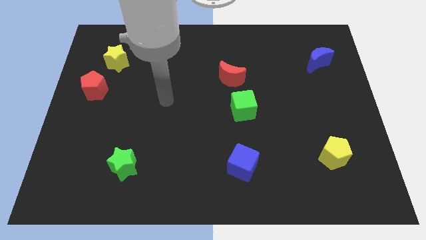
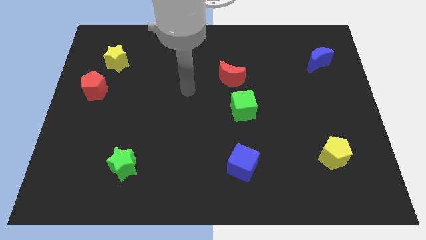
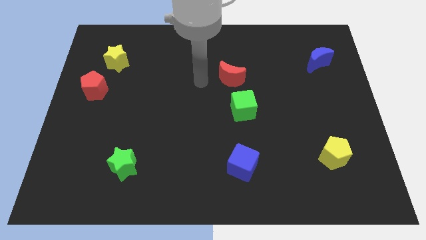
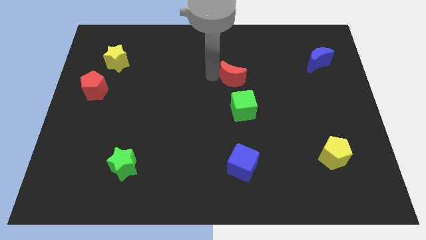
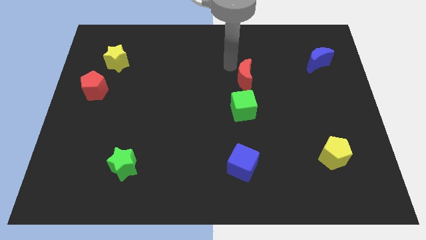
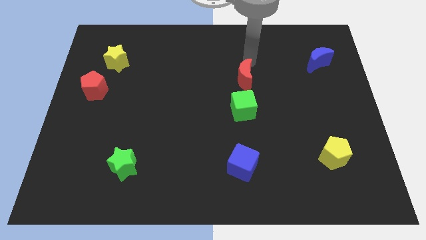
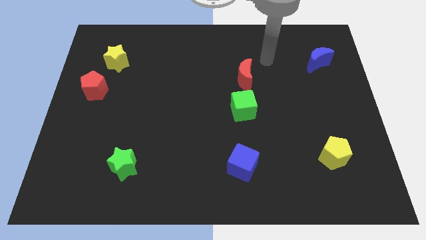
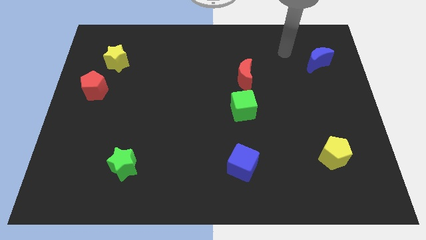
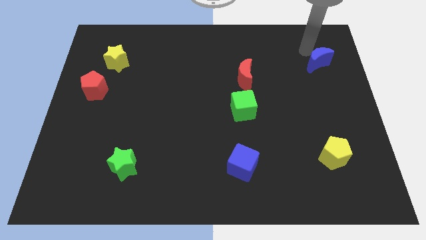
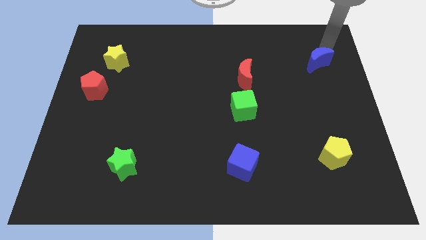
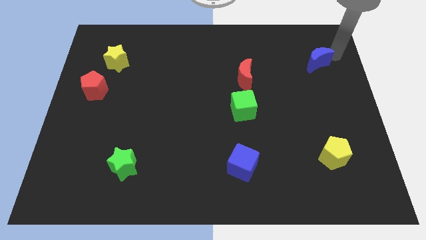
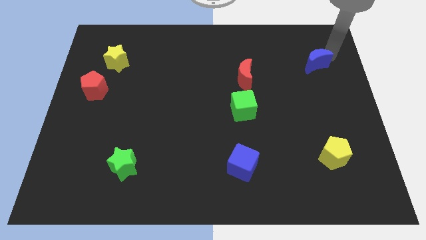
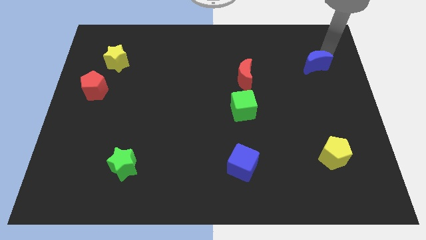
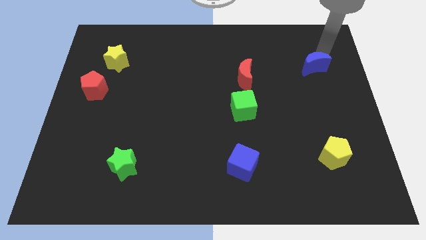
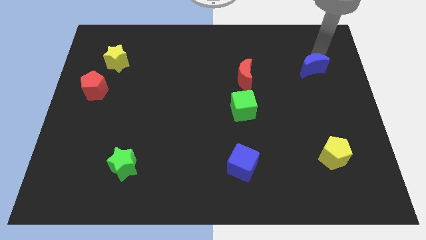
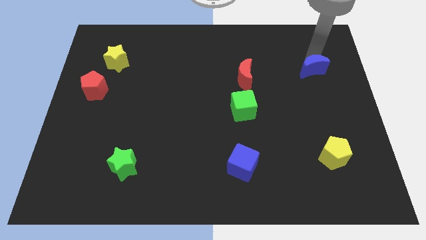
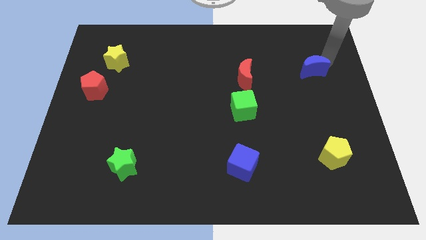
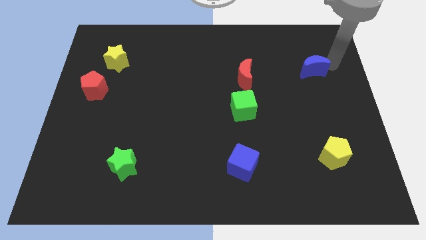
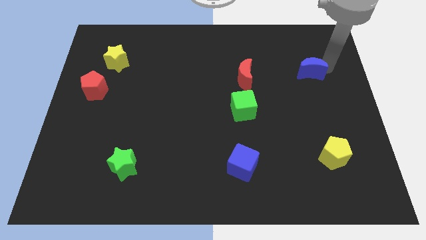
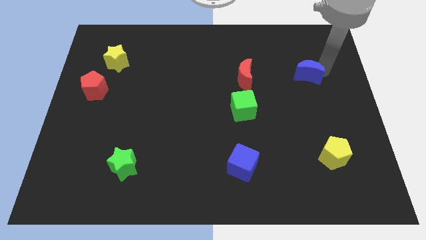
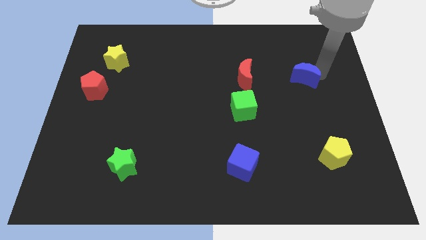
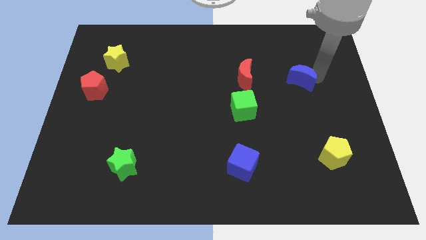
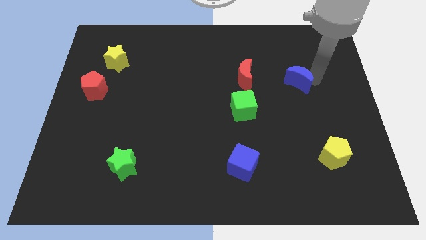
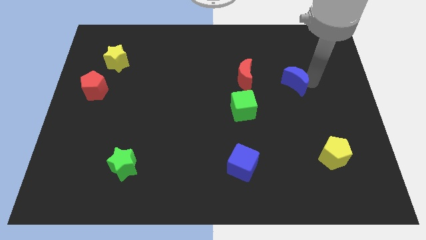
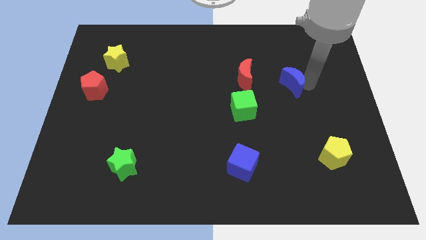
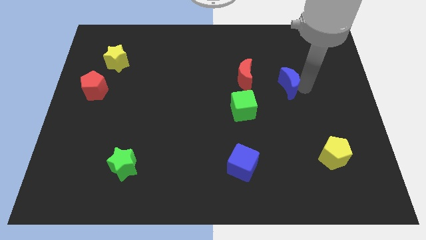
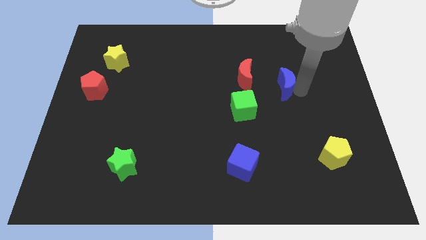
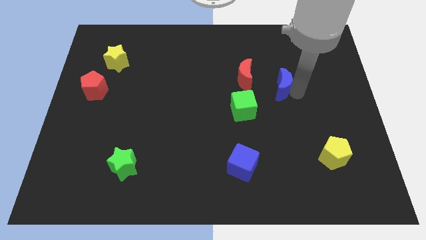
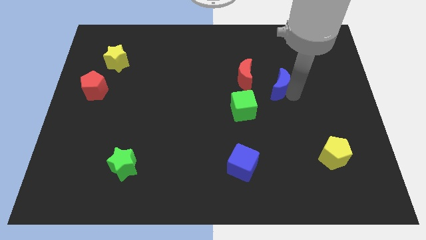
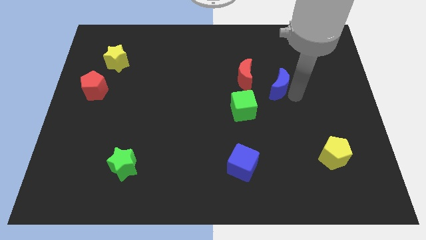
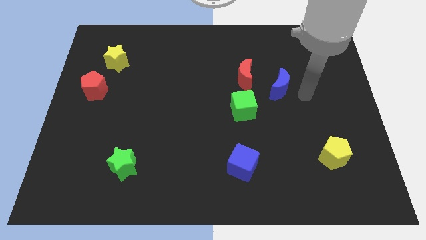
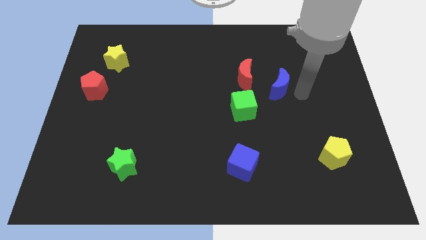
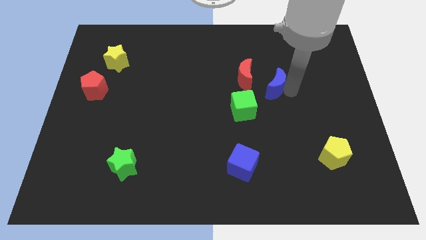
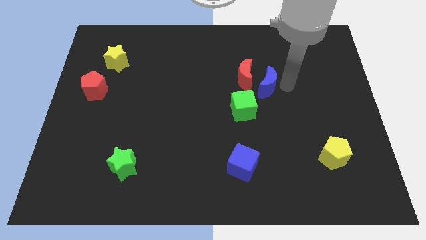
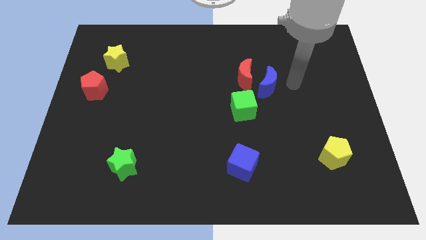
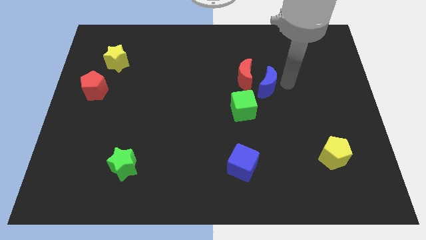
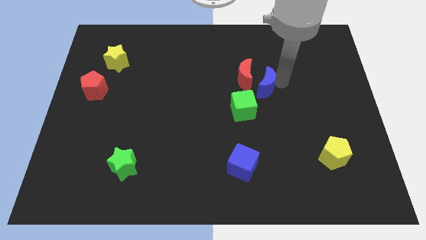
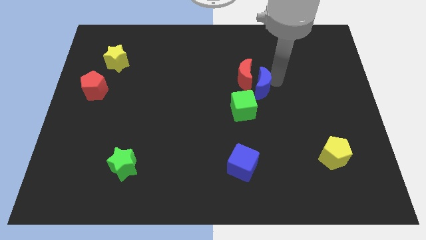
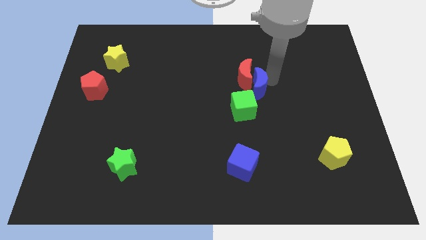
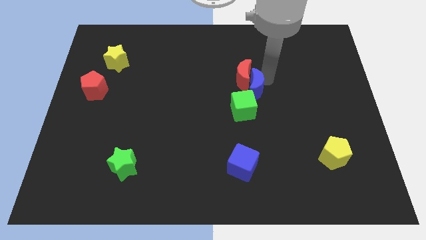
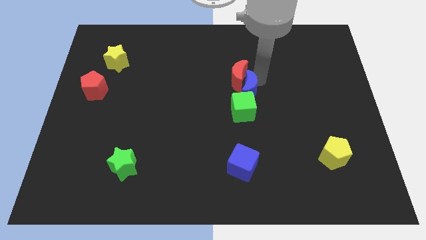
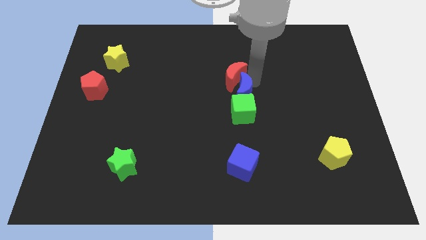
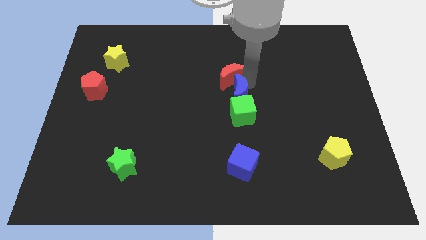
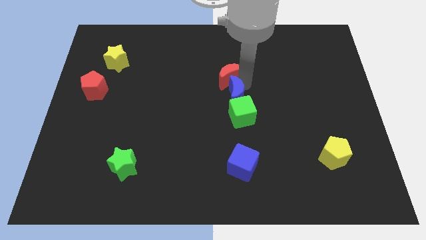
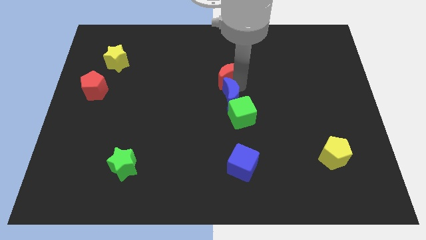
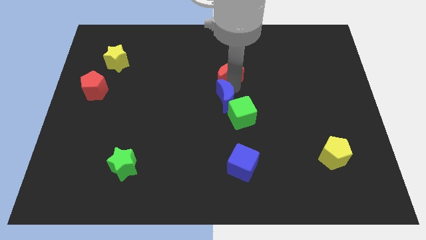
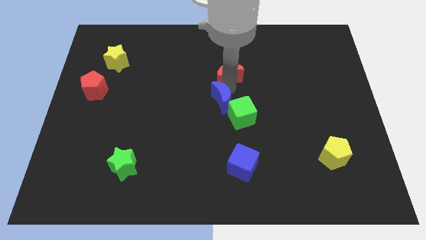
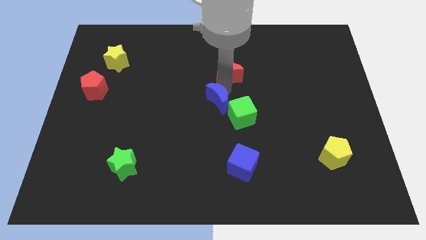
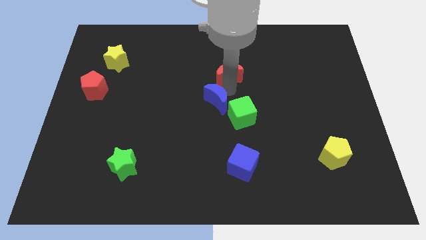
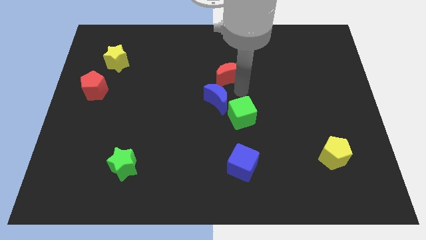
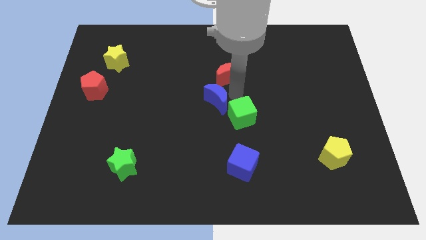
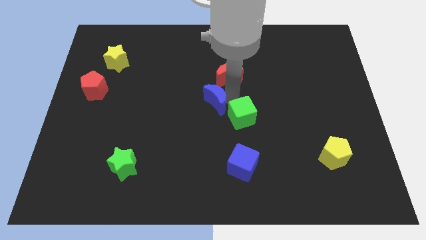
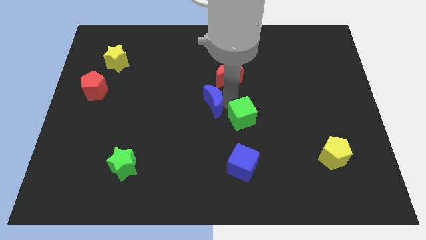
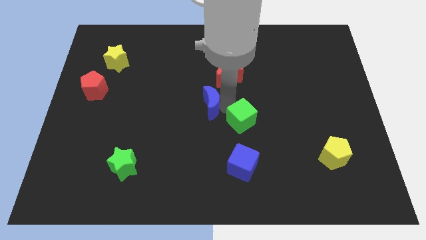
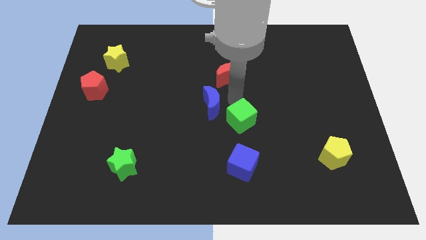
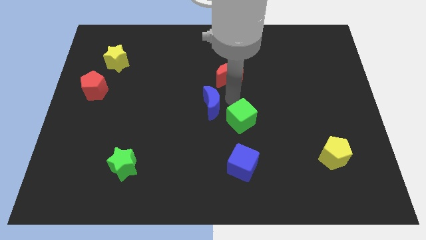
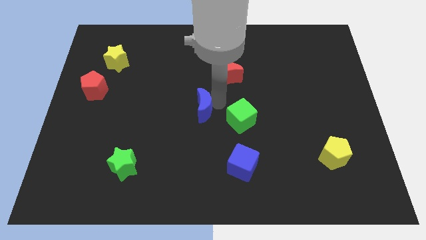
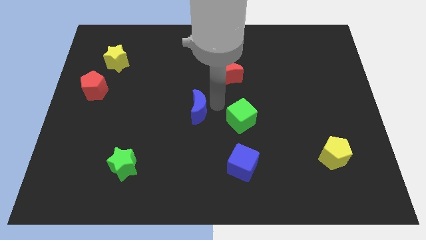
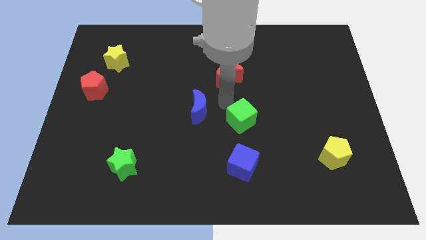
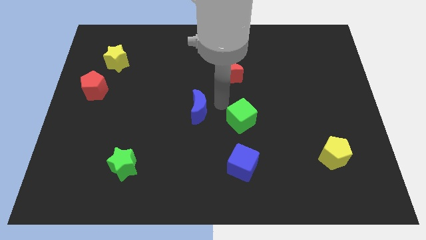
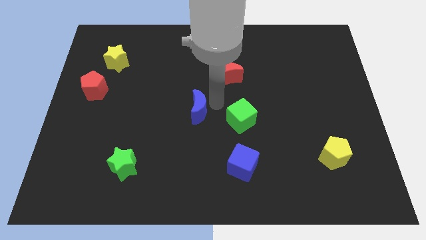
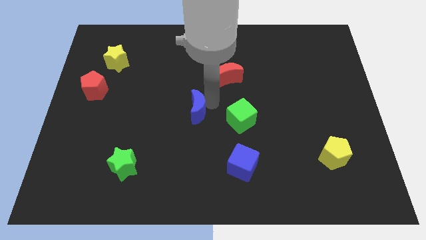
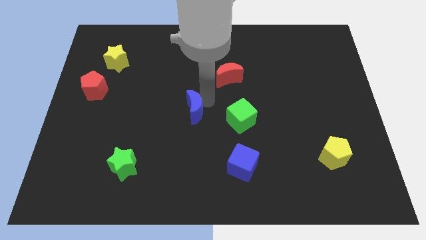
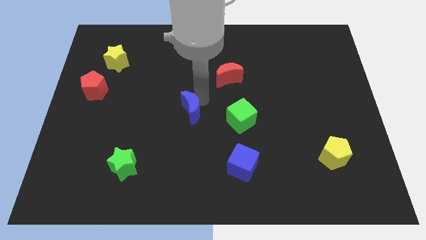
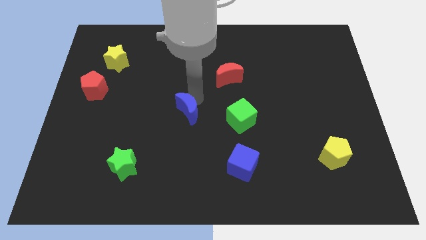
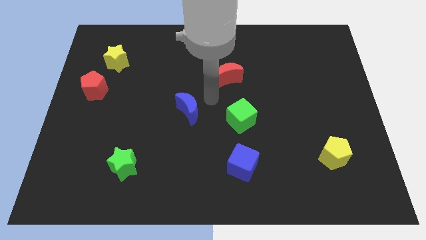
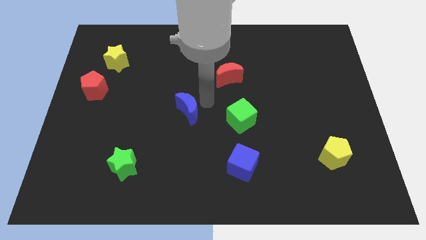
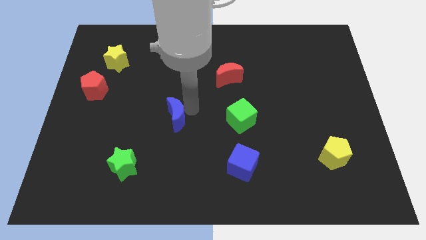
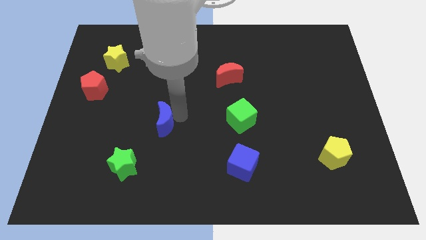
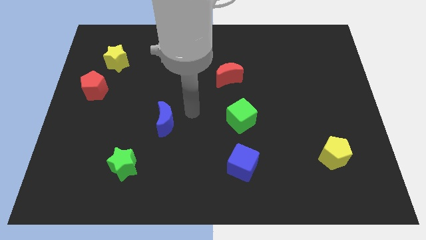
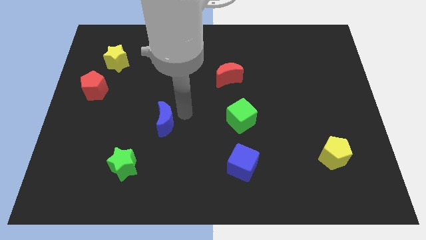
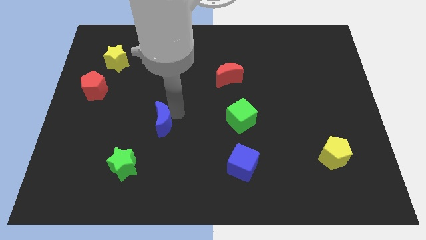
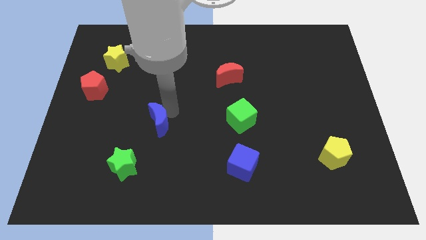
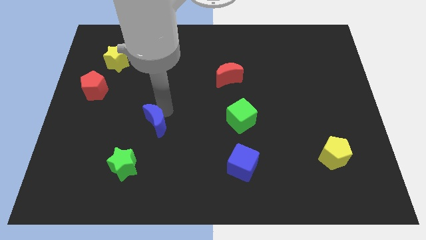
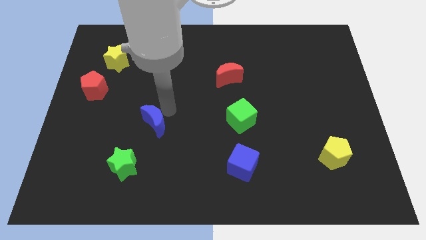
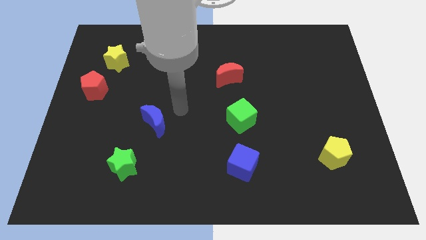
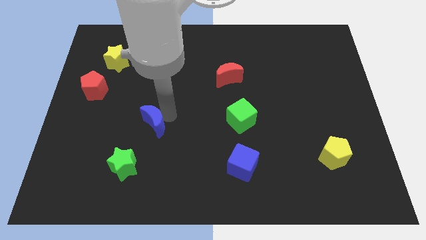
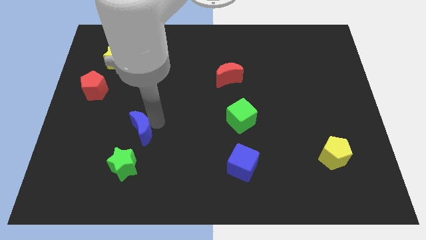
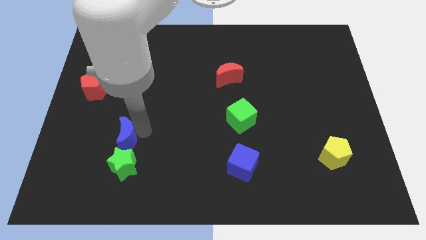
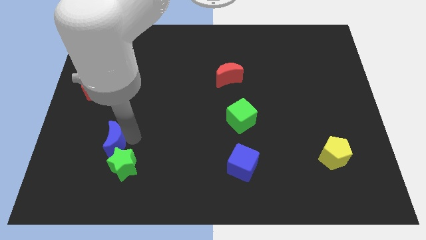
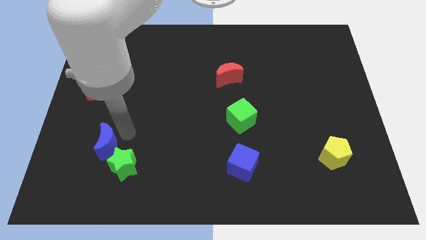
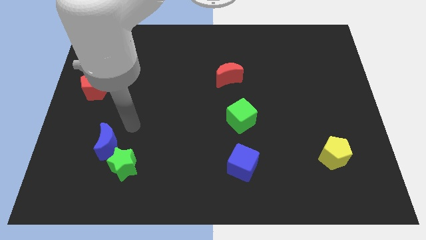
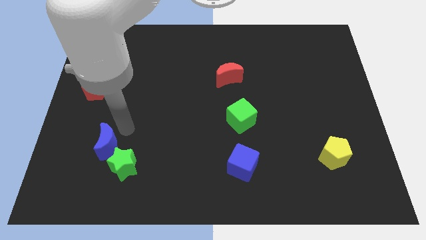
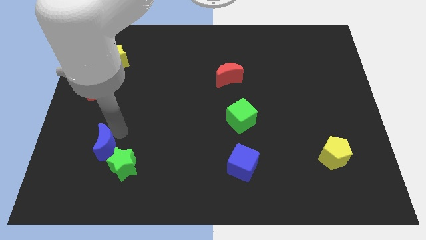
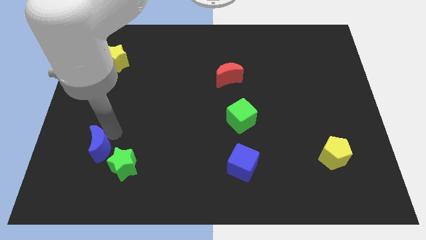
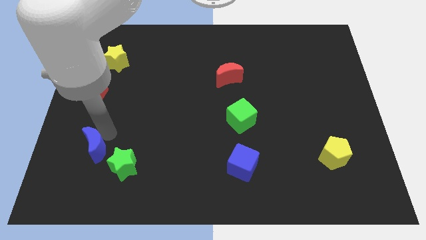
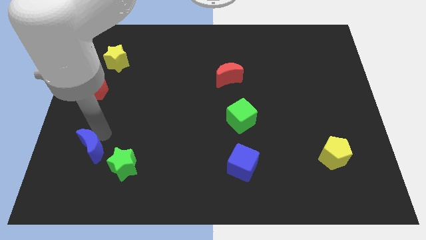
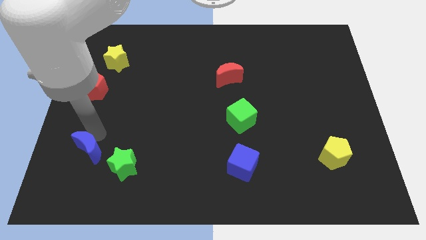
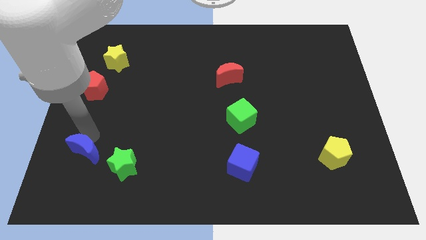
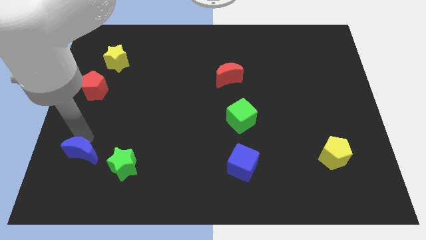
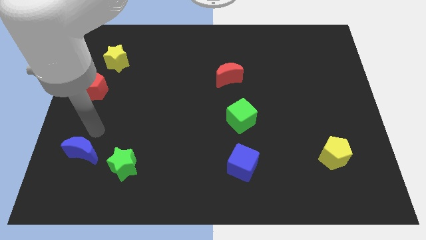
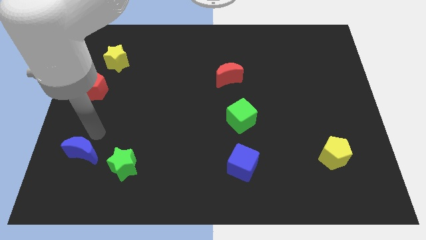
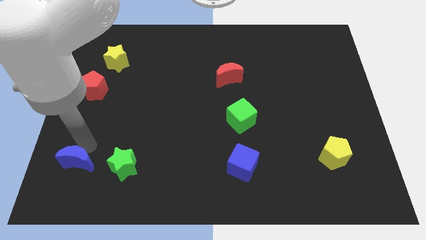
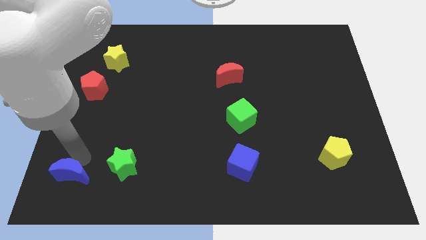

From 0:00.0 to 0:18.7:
slide the blue moon to the bottom left corner
